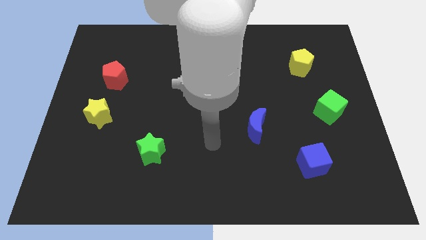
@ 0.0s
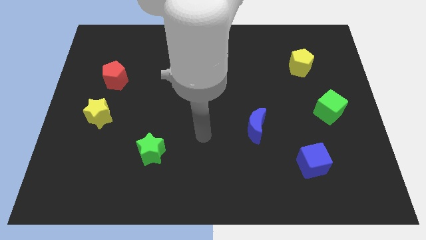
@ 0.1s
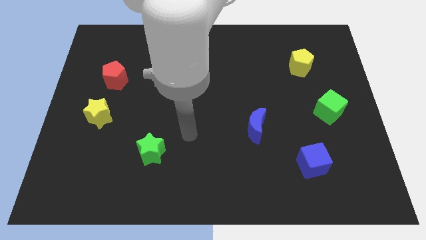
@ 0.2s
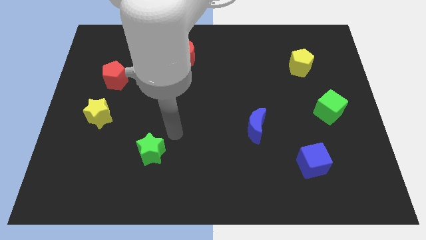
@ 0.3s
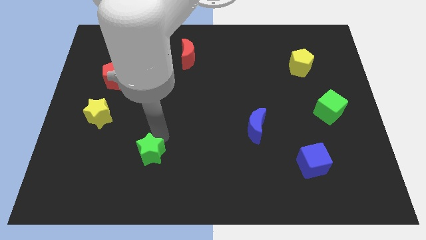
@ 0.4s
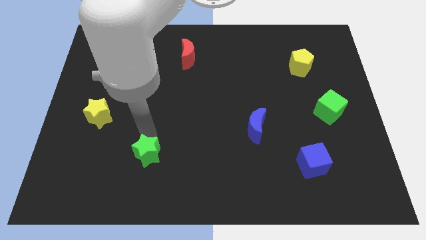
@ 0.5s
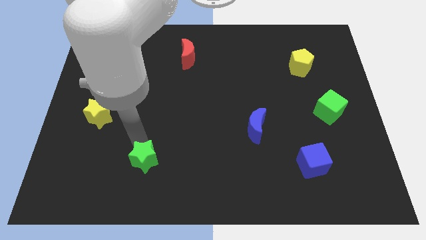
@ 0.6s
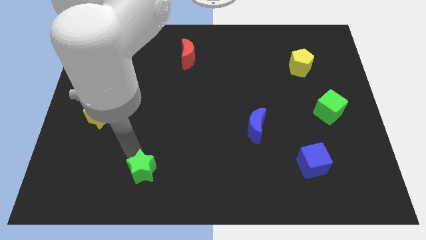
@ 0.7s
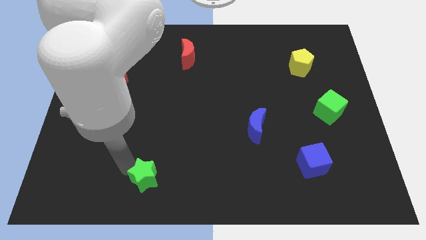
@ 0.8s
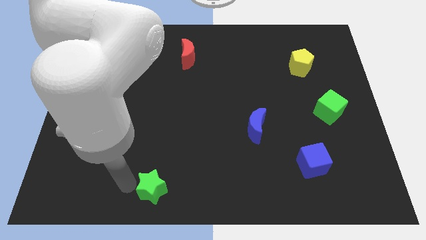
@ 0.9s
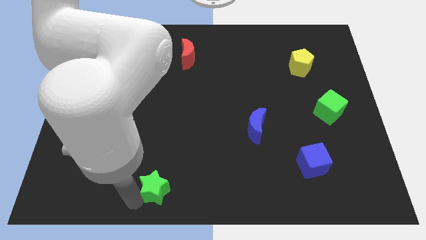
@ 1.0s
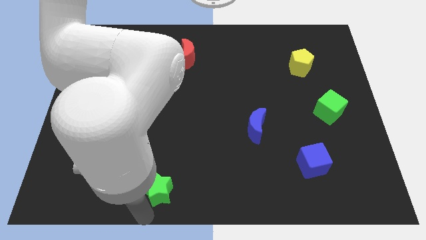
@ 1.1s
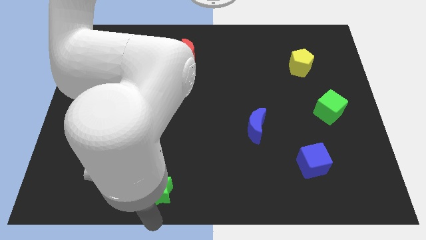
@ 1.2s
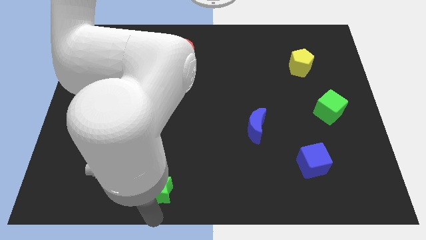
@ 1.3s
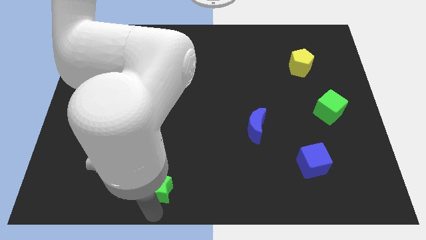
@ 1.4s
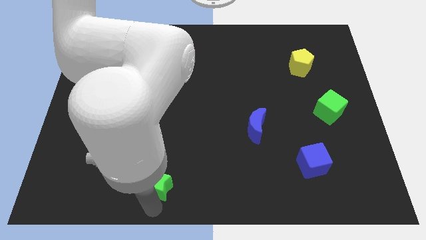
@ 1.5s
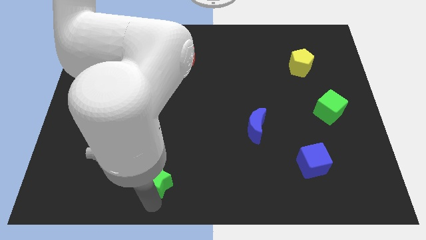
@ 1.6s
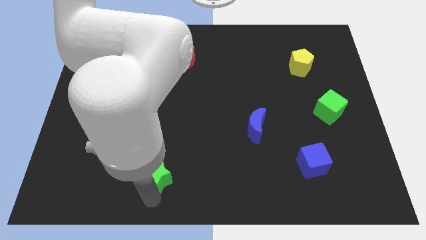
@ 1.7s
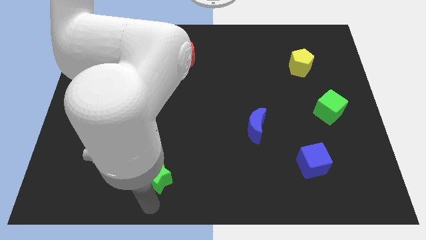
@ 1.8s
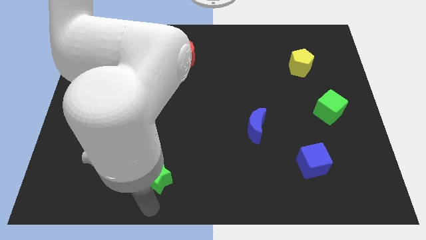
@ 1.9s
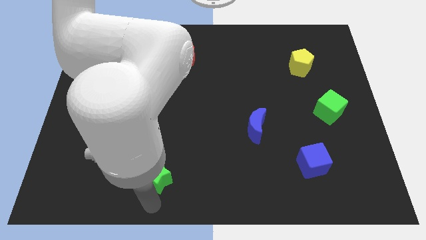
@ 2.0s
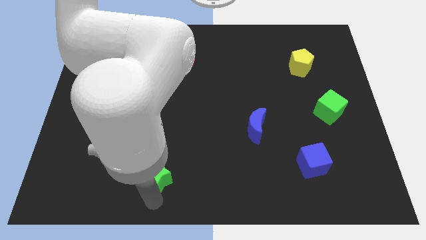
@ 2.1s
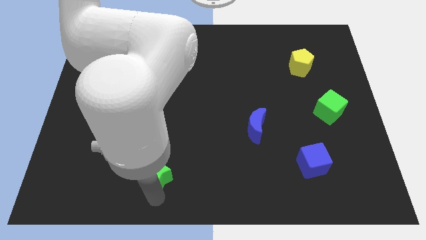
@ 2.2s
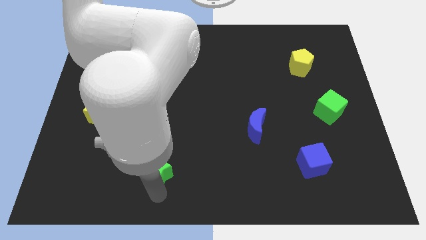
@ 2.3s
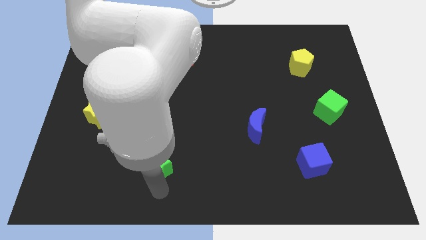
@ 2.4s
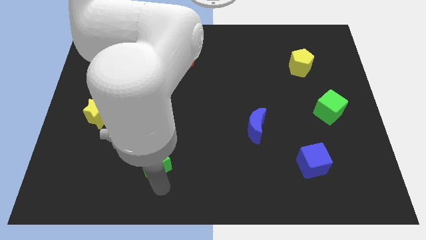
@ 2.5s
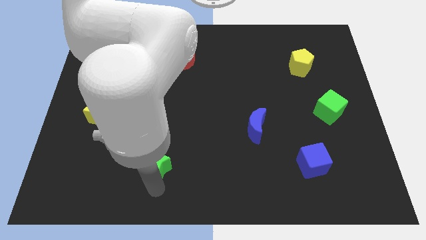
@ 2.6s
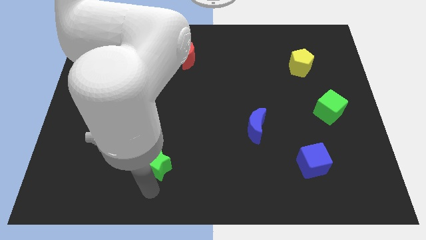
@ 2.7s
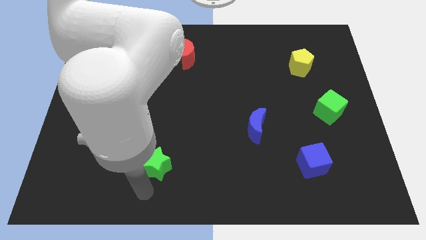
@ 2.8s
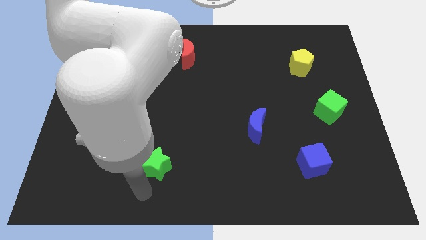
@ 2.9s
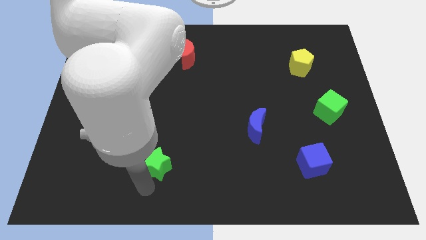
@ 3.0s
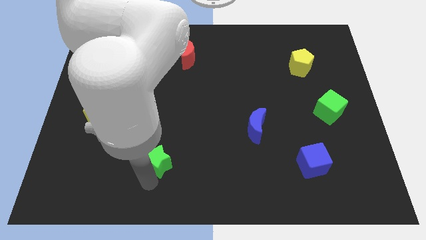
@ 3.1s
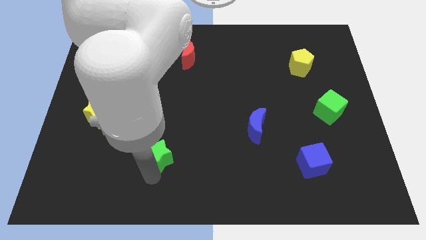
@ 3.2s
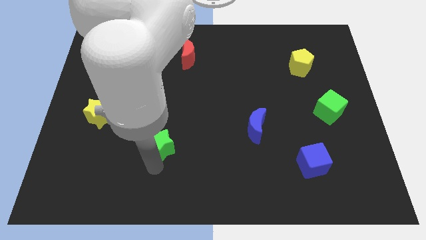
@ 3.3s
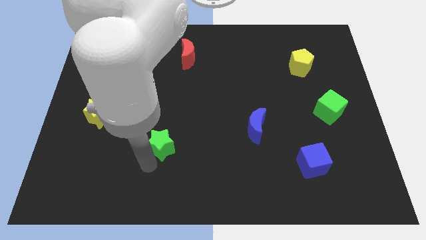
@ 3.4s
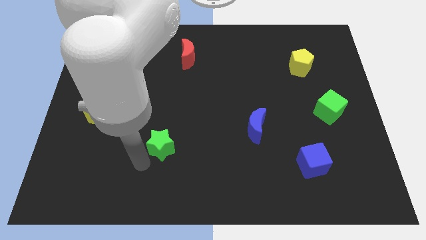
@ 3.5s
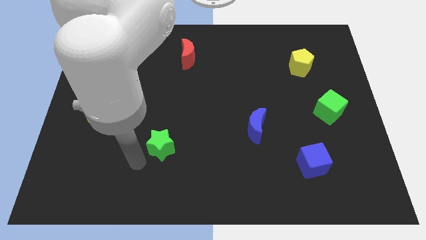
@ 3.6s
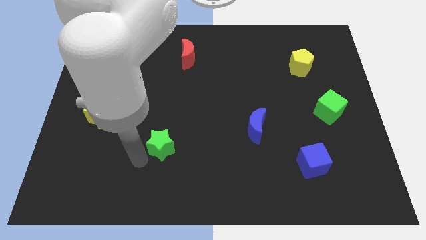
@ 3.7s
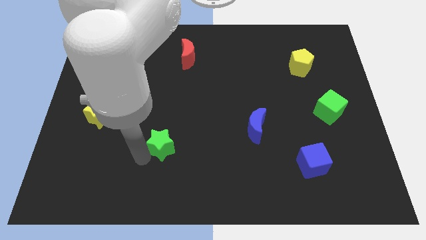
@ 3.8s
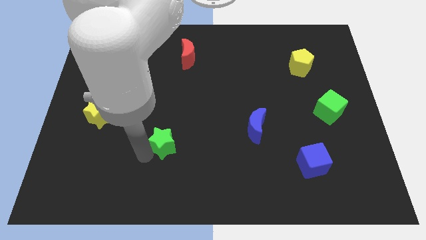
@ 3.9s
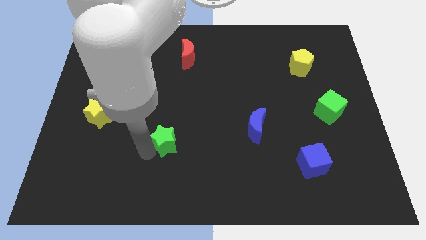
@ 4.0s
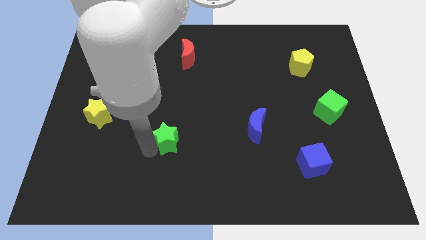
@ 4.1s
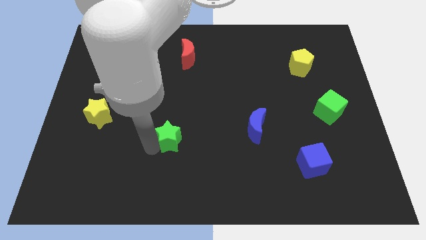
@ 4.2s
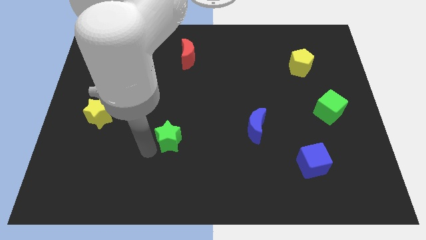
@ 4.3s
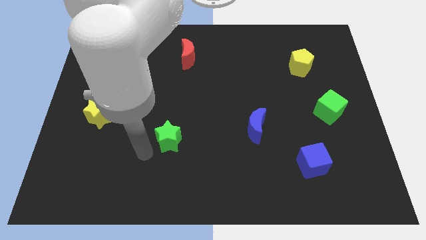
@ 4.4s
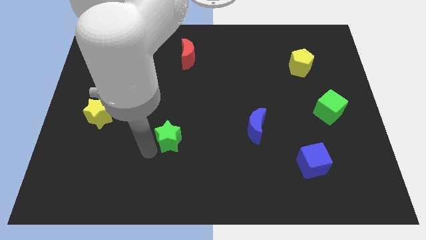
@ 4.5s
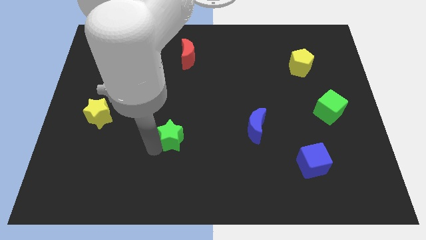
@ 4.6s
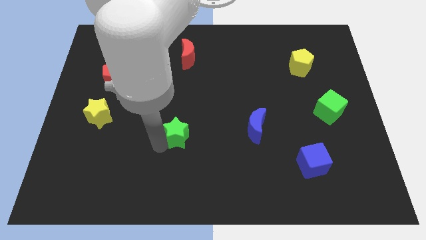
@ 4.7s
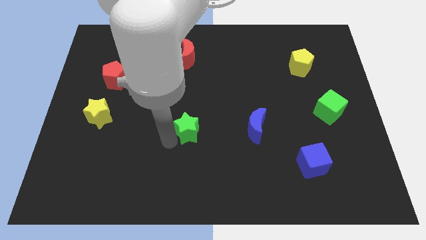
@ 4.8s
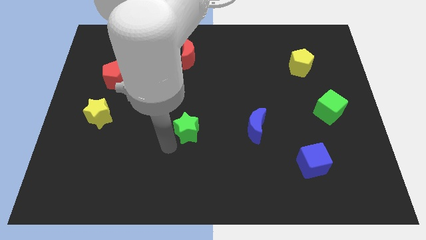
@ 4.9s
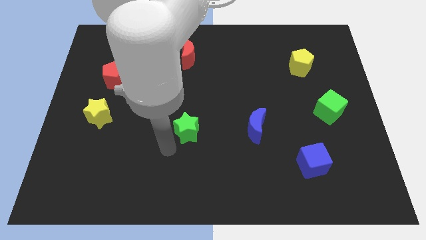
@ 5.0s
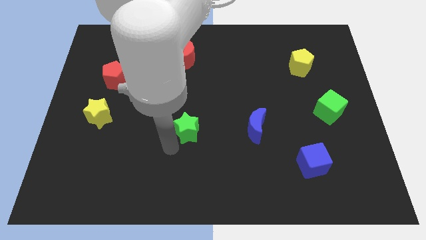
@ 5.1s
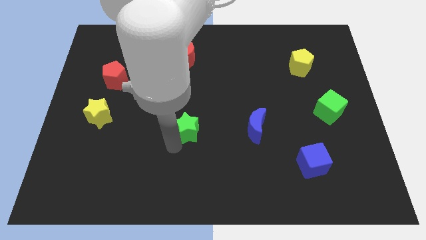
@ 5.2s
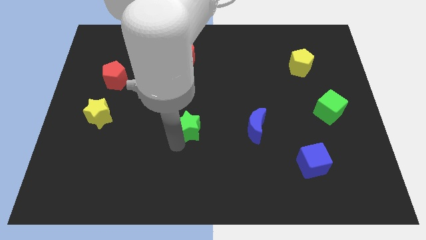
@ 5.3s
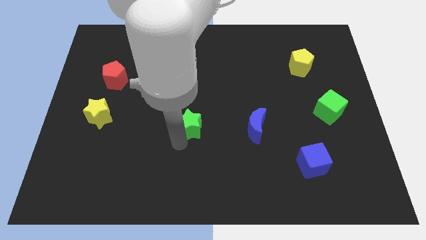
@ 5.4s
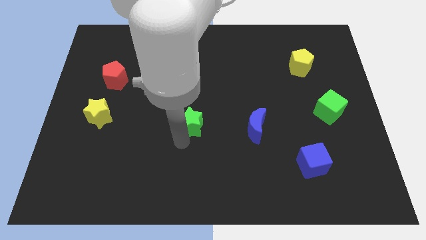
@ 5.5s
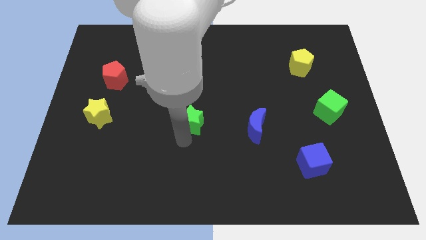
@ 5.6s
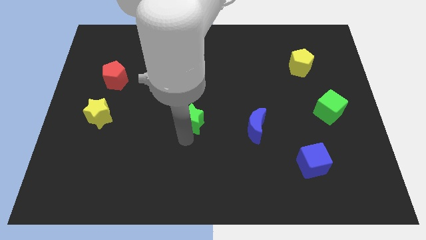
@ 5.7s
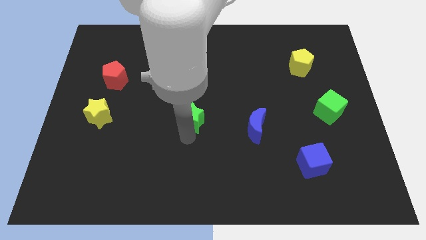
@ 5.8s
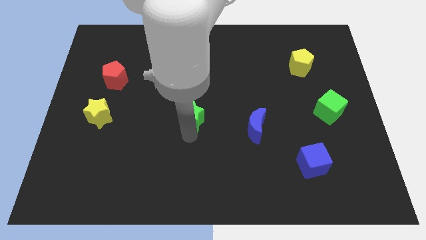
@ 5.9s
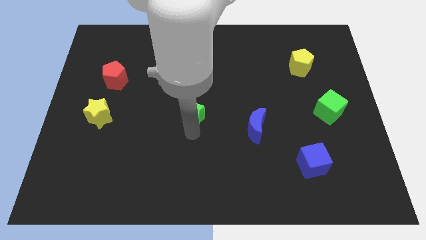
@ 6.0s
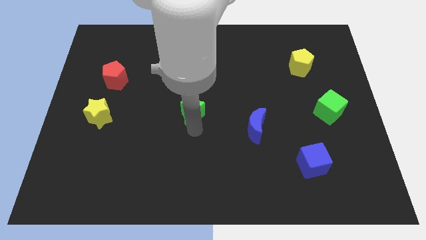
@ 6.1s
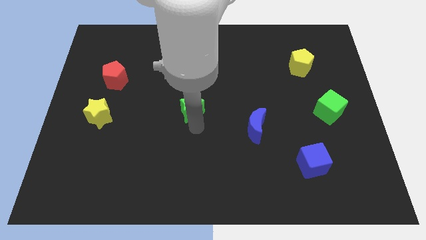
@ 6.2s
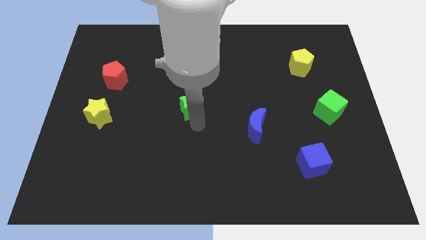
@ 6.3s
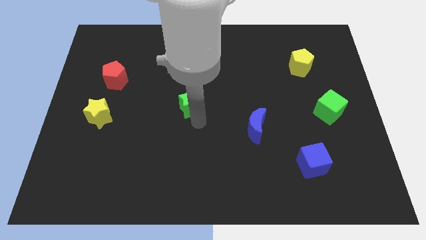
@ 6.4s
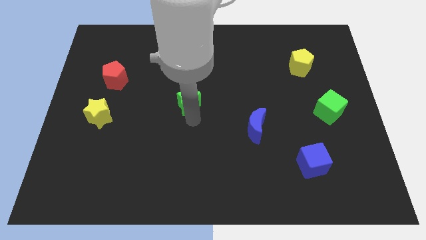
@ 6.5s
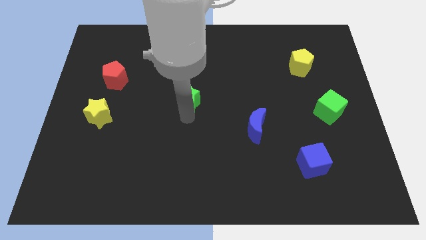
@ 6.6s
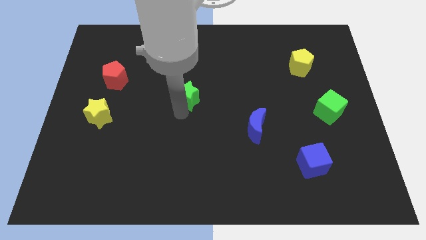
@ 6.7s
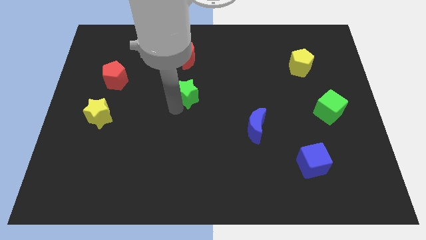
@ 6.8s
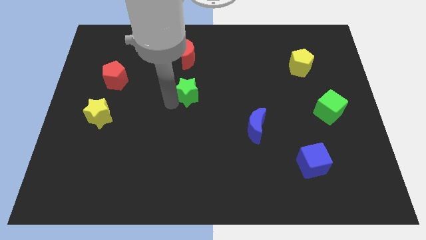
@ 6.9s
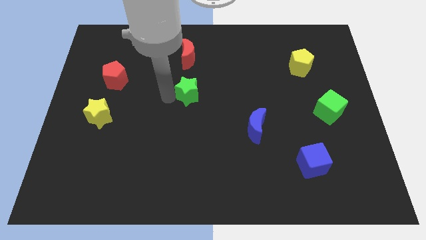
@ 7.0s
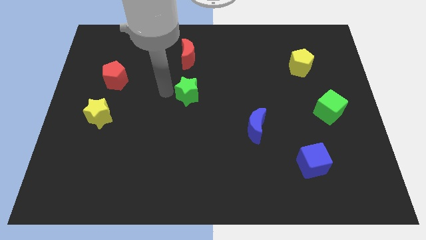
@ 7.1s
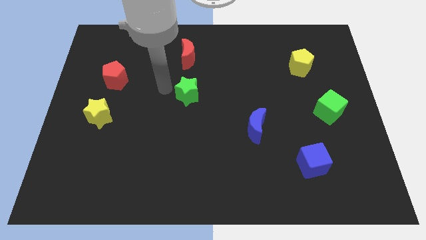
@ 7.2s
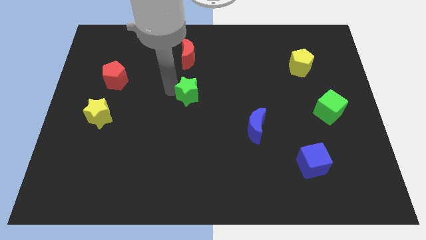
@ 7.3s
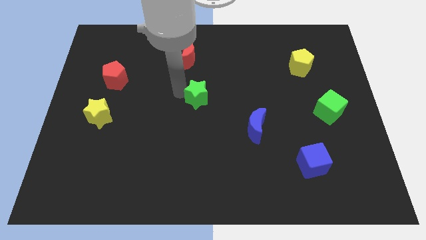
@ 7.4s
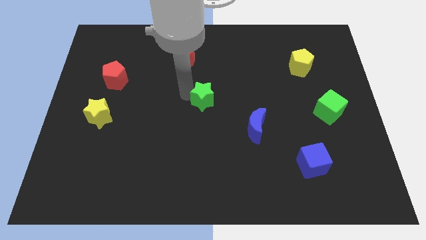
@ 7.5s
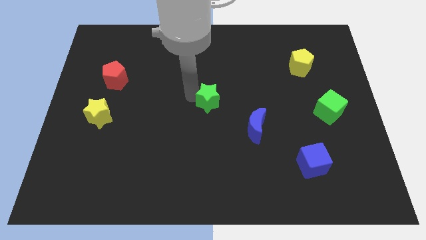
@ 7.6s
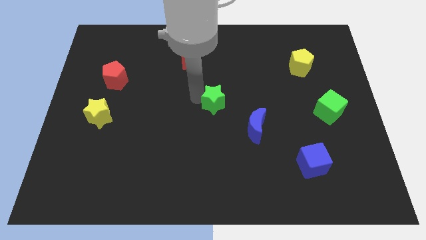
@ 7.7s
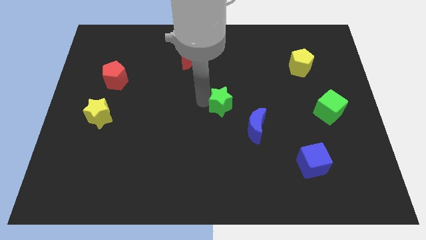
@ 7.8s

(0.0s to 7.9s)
move the green star up and right diagonally
